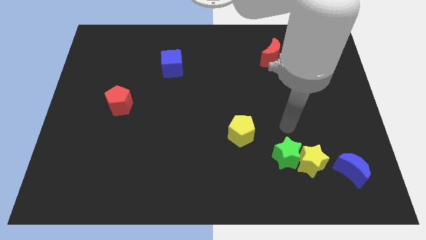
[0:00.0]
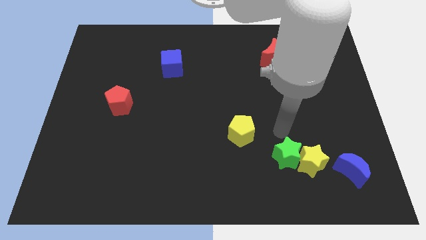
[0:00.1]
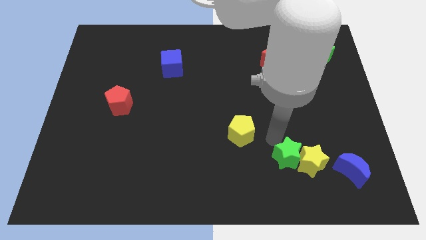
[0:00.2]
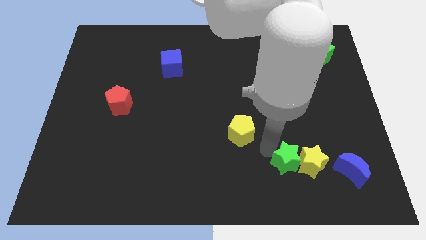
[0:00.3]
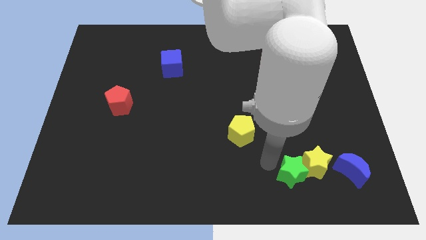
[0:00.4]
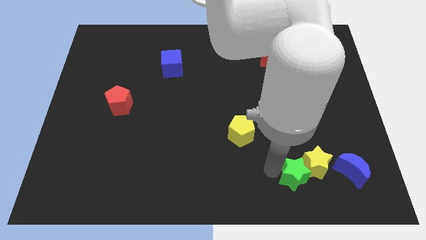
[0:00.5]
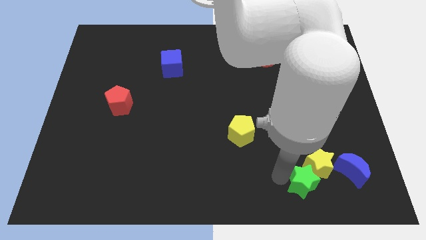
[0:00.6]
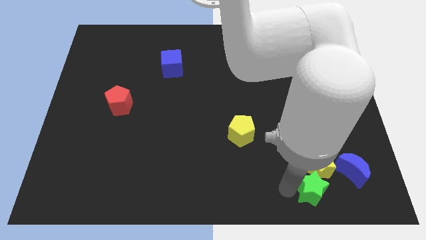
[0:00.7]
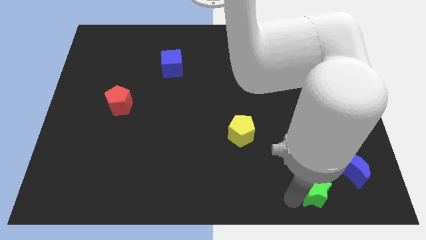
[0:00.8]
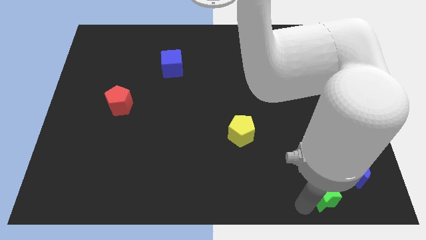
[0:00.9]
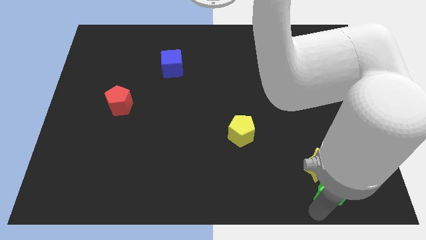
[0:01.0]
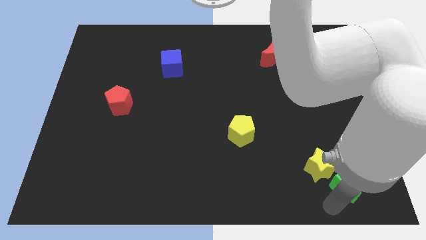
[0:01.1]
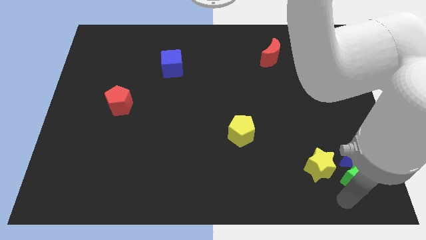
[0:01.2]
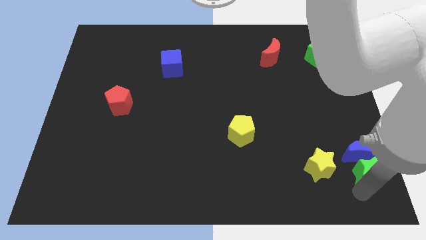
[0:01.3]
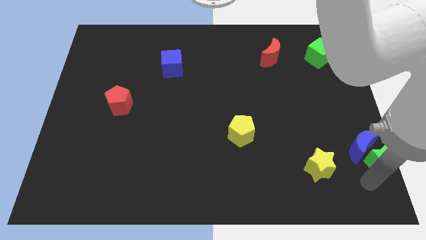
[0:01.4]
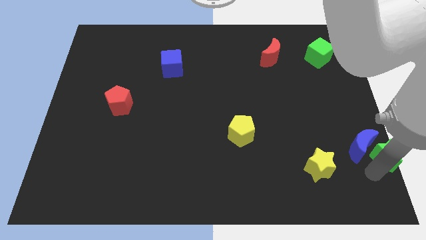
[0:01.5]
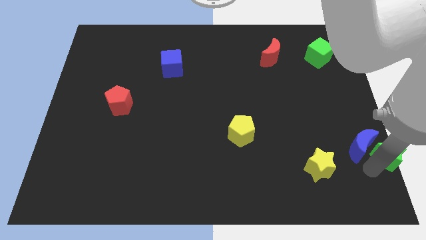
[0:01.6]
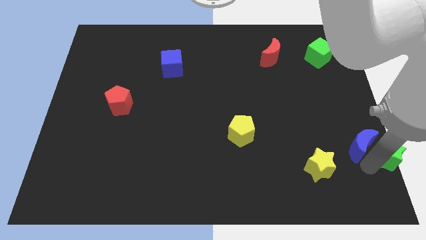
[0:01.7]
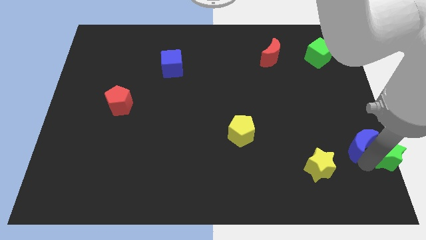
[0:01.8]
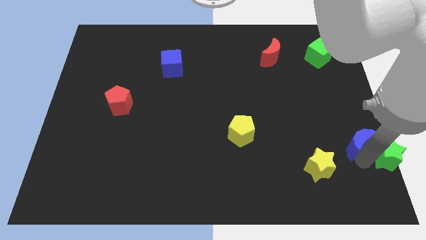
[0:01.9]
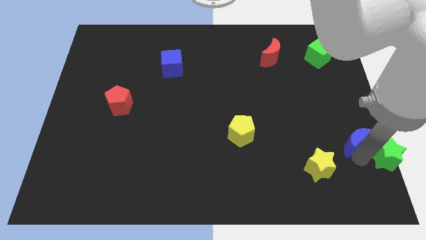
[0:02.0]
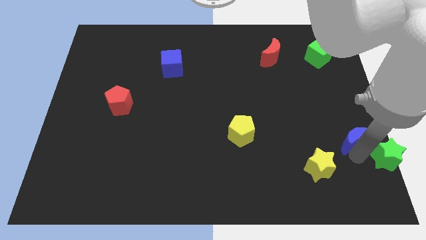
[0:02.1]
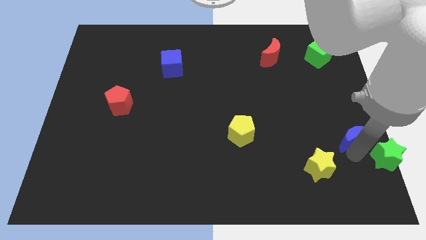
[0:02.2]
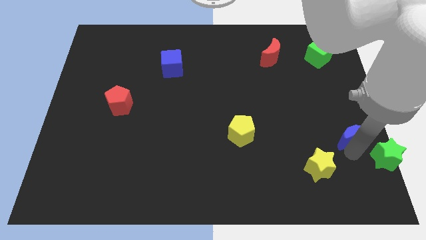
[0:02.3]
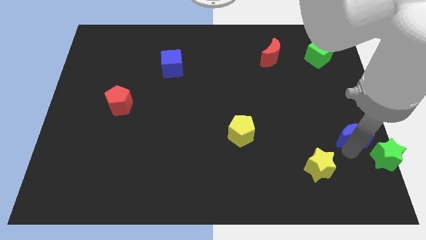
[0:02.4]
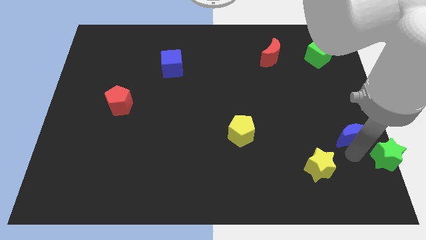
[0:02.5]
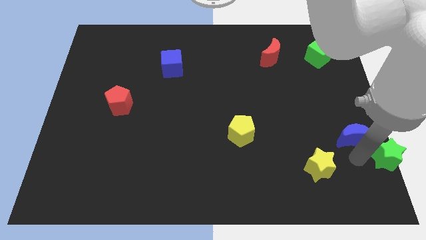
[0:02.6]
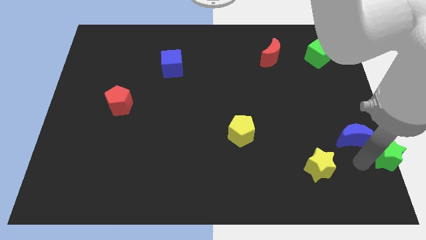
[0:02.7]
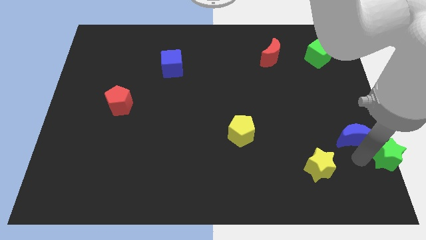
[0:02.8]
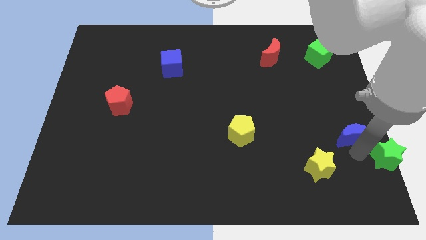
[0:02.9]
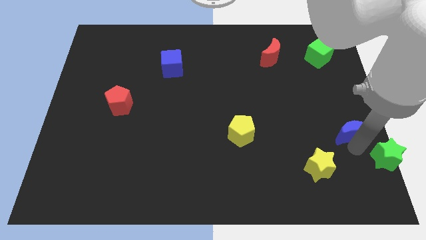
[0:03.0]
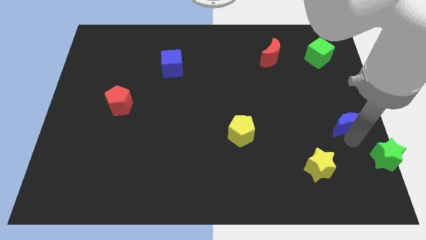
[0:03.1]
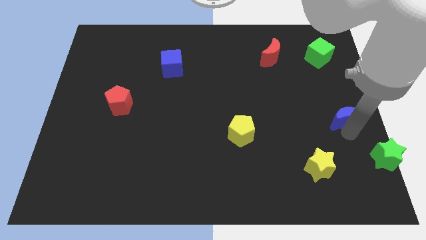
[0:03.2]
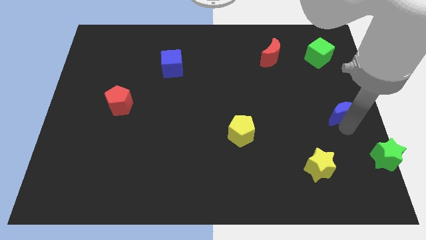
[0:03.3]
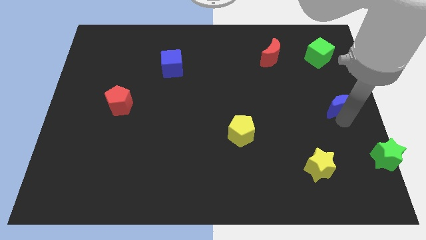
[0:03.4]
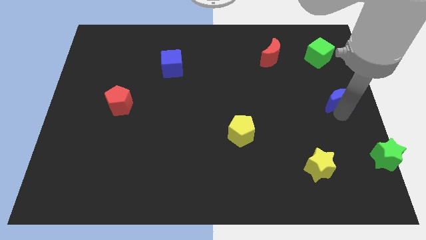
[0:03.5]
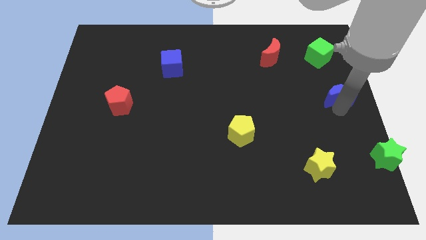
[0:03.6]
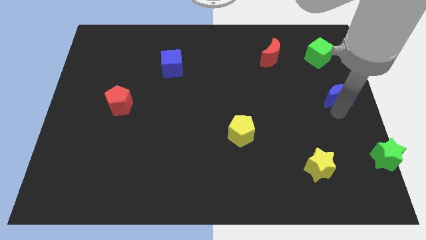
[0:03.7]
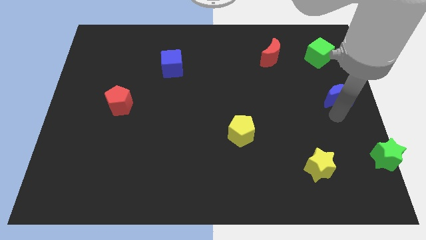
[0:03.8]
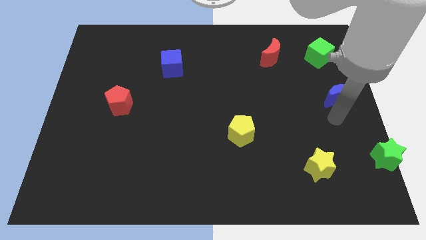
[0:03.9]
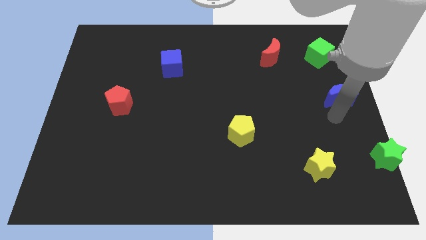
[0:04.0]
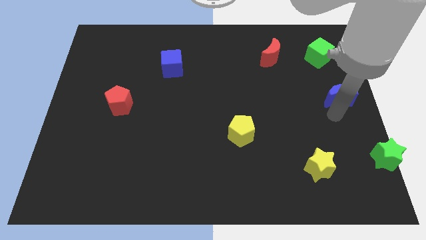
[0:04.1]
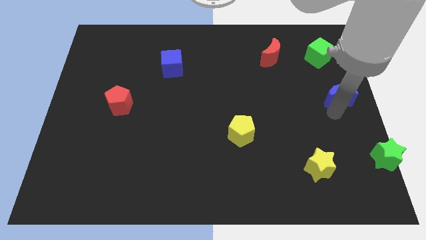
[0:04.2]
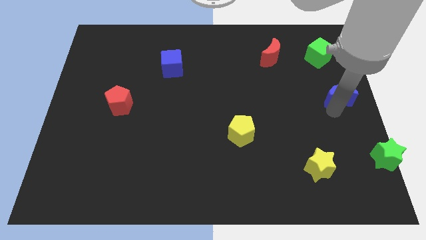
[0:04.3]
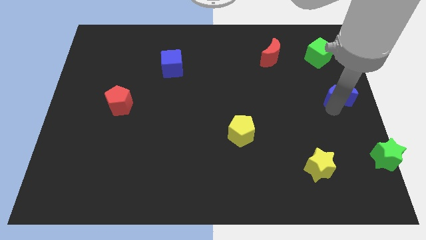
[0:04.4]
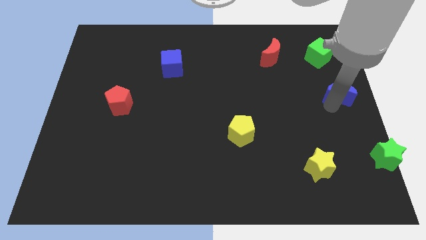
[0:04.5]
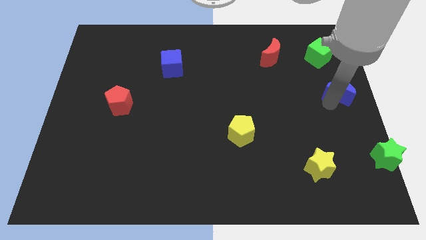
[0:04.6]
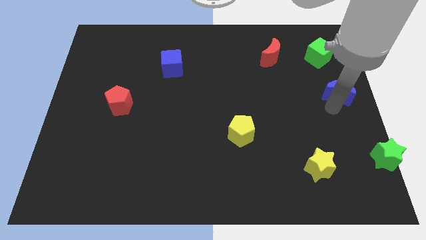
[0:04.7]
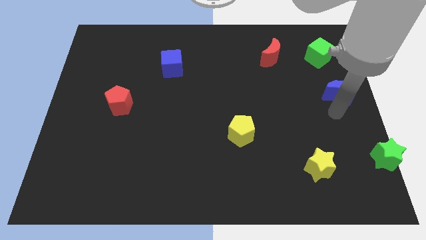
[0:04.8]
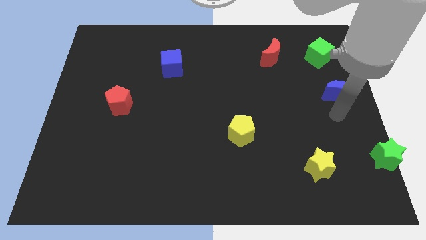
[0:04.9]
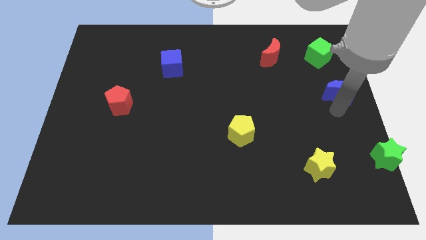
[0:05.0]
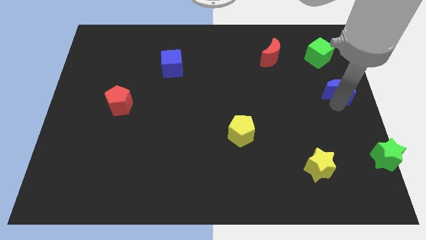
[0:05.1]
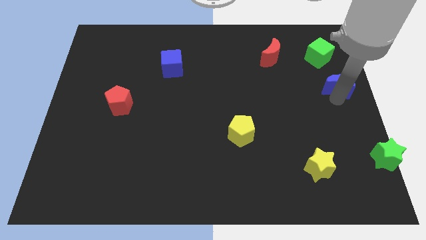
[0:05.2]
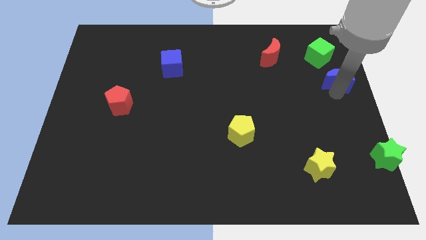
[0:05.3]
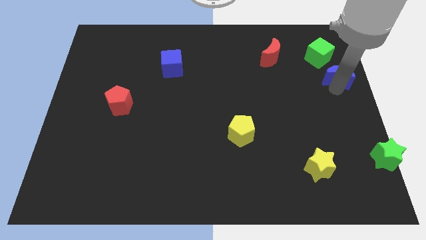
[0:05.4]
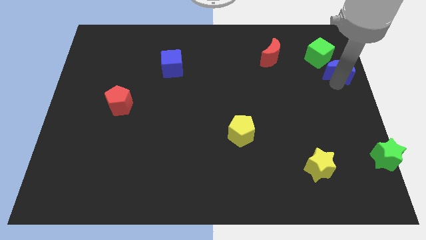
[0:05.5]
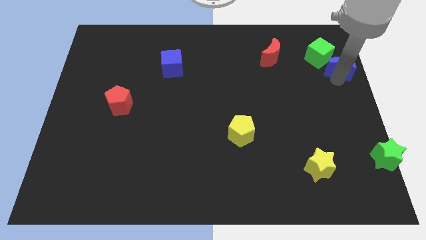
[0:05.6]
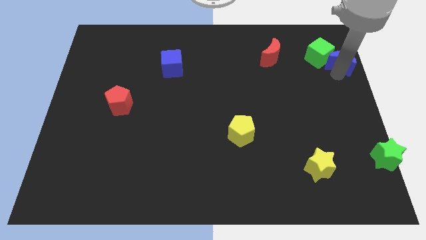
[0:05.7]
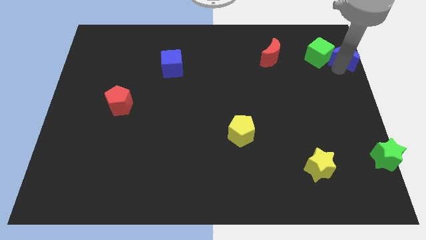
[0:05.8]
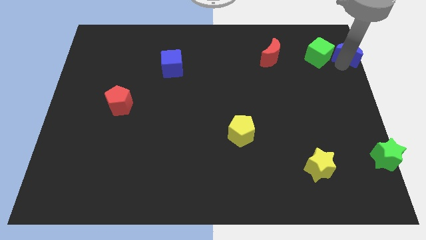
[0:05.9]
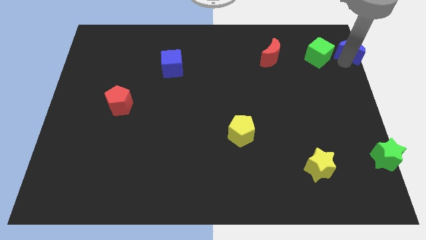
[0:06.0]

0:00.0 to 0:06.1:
put the blue moon to the top right corner

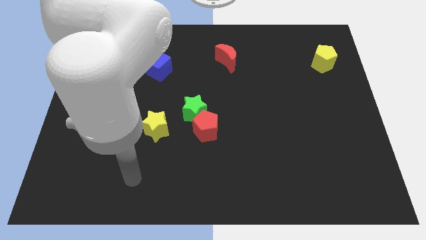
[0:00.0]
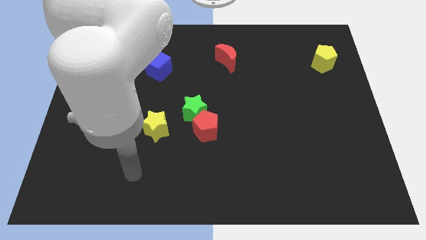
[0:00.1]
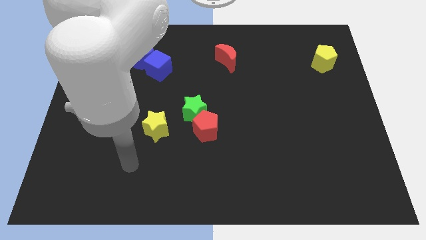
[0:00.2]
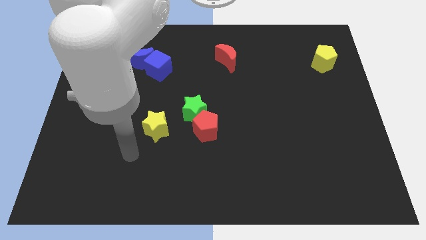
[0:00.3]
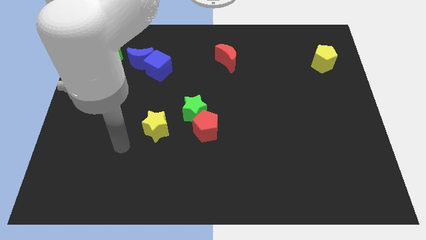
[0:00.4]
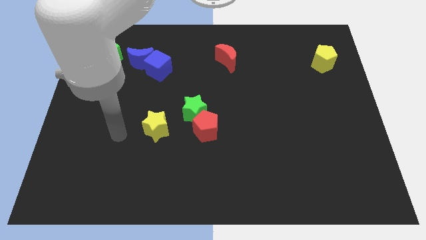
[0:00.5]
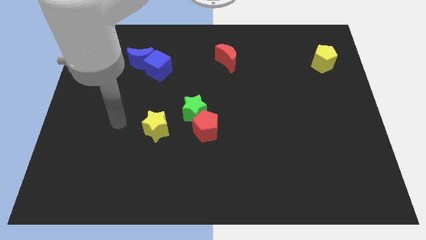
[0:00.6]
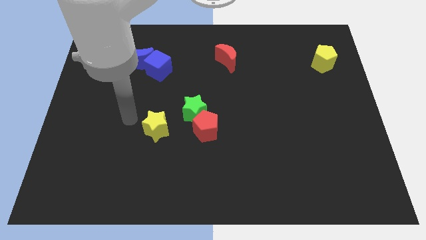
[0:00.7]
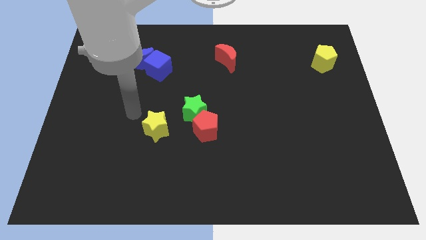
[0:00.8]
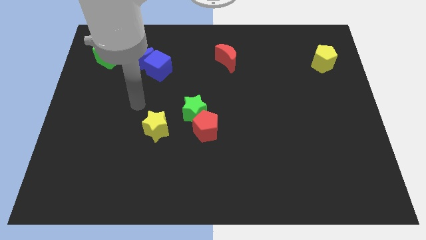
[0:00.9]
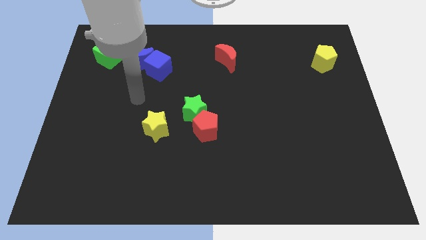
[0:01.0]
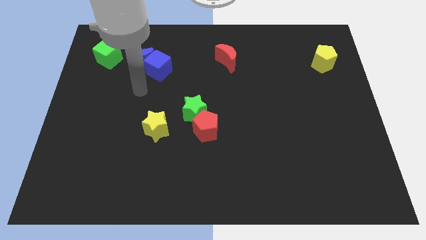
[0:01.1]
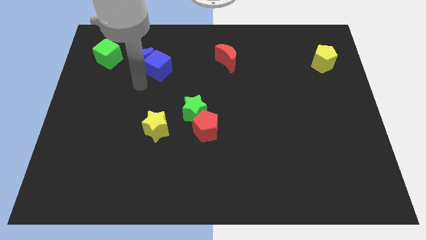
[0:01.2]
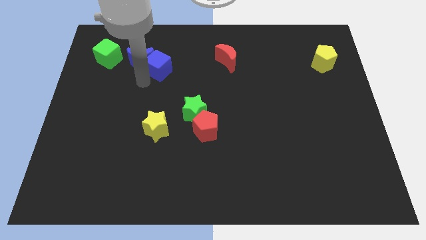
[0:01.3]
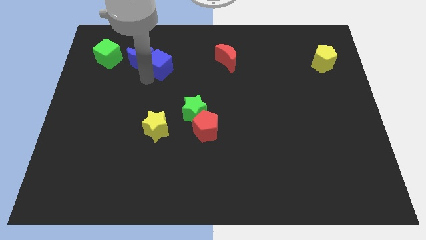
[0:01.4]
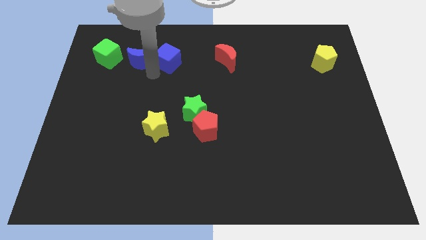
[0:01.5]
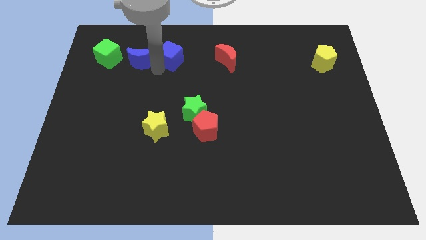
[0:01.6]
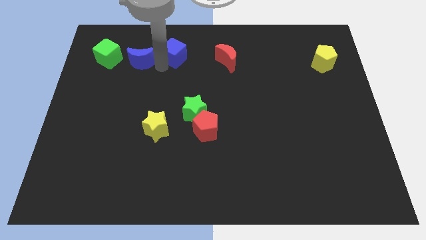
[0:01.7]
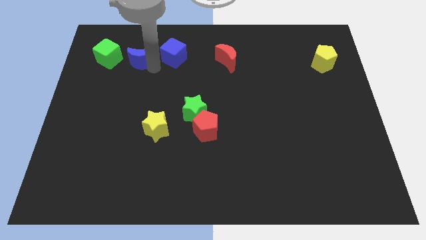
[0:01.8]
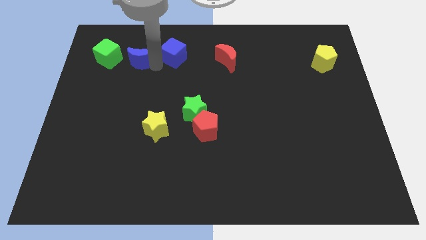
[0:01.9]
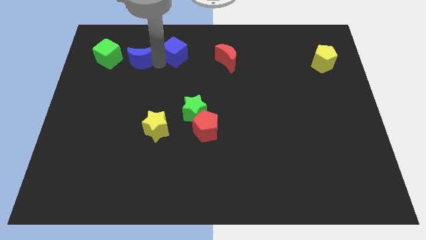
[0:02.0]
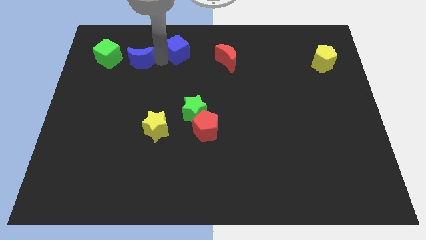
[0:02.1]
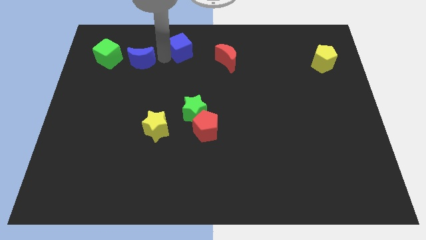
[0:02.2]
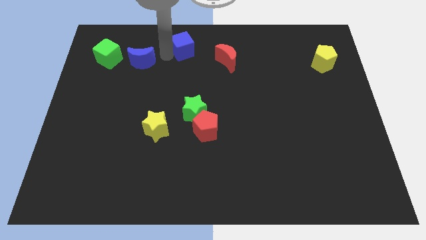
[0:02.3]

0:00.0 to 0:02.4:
move the blue cube to the top side
